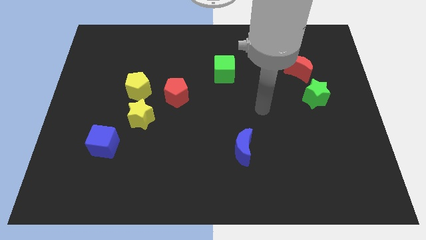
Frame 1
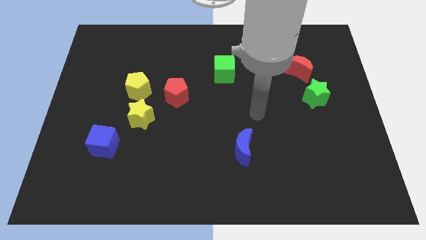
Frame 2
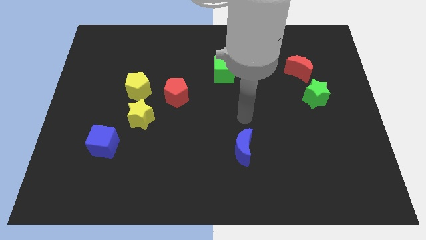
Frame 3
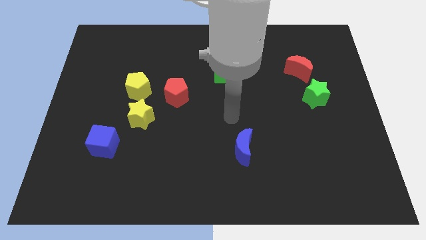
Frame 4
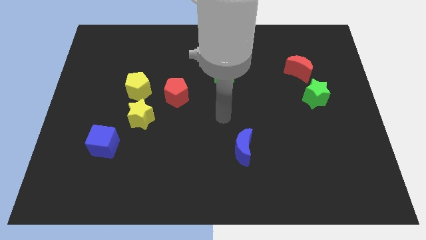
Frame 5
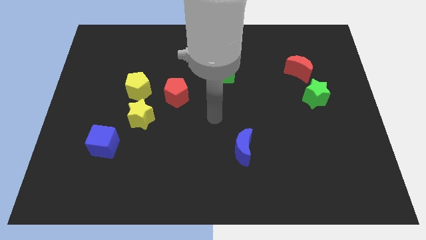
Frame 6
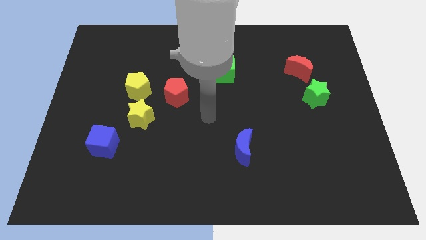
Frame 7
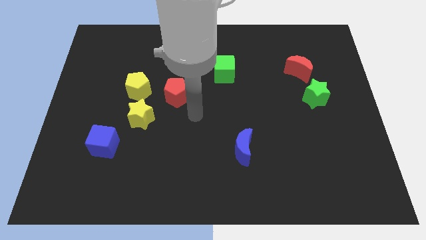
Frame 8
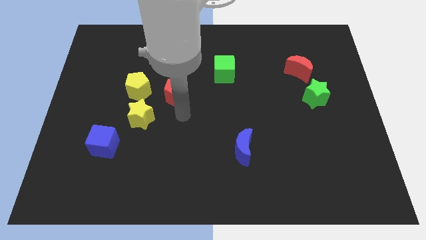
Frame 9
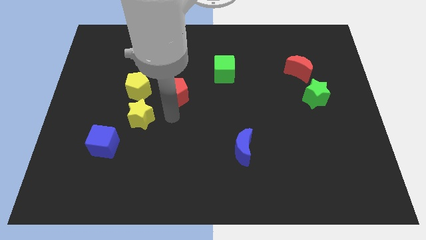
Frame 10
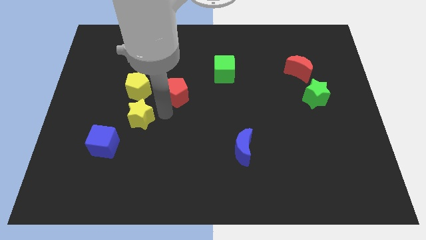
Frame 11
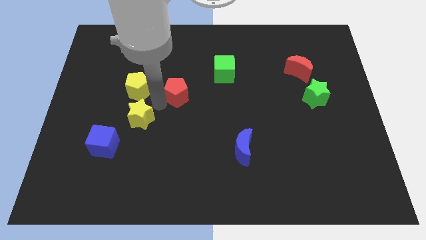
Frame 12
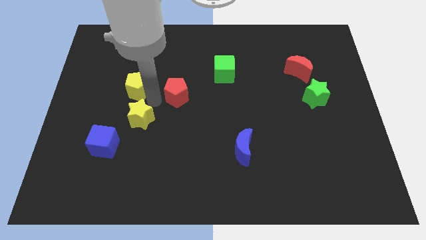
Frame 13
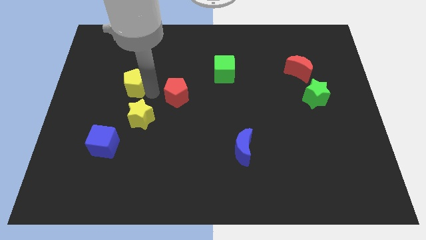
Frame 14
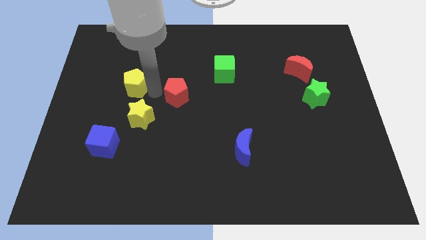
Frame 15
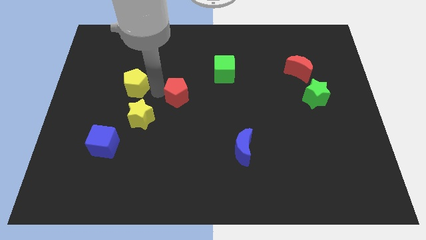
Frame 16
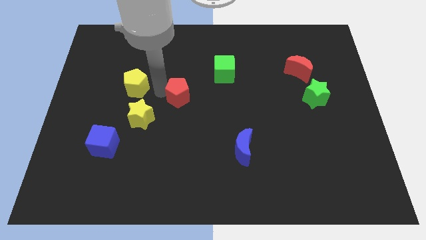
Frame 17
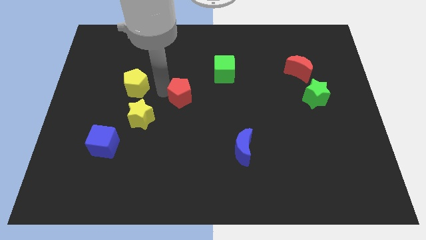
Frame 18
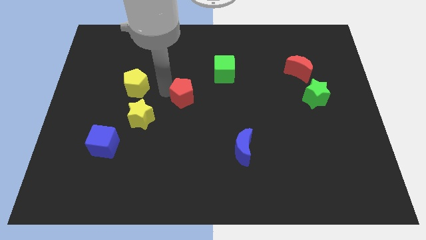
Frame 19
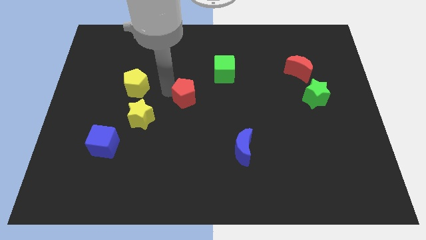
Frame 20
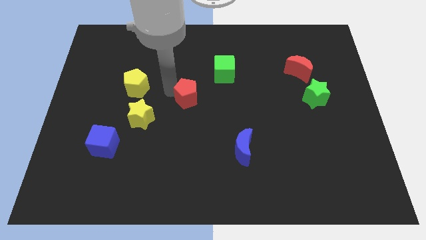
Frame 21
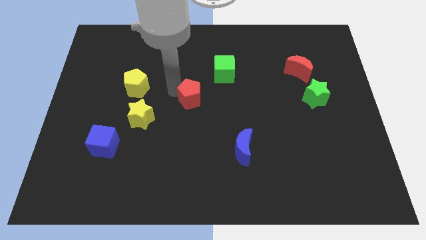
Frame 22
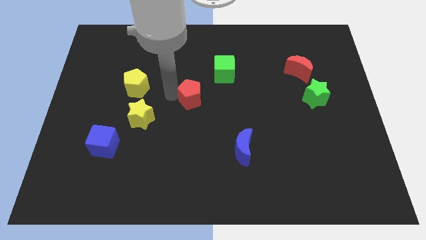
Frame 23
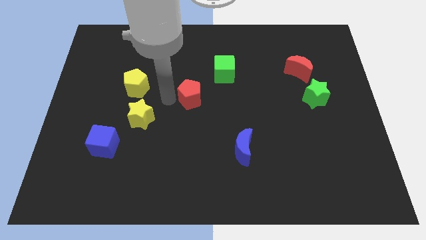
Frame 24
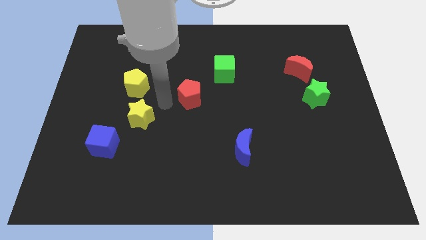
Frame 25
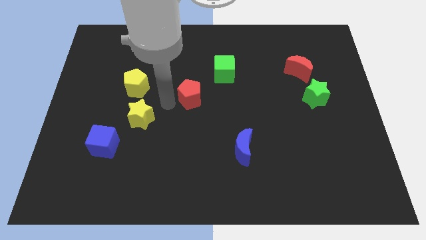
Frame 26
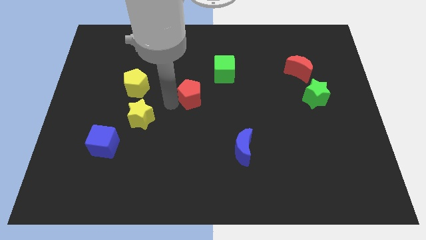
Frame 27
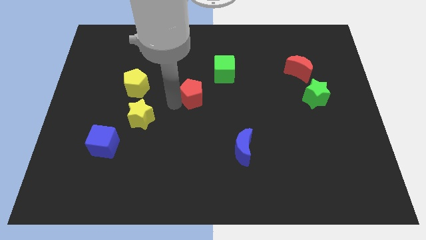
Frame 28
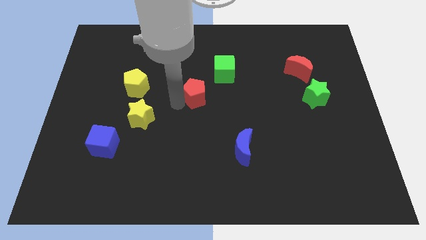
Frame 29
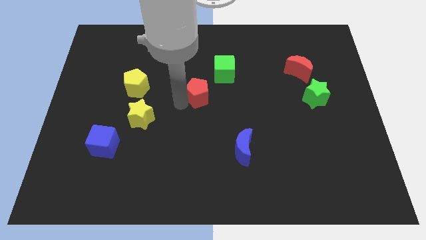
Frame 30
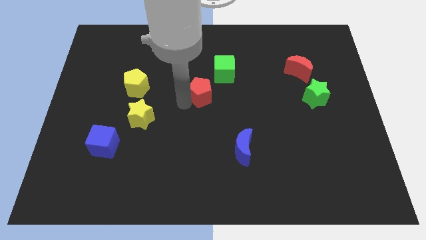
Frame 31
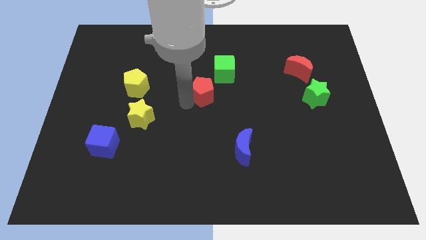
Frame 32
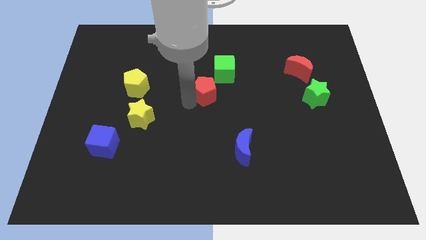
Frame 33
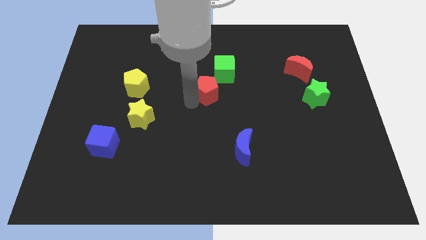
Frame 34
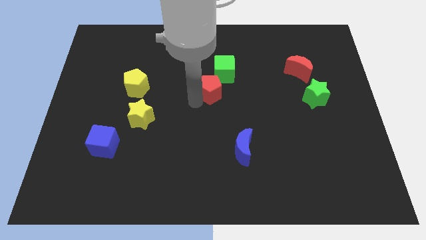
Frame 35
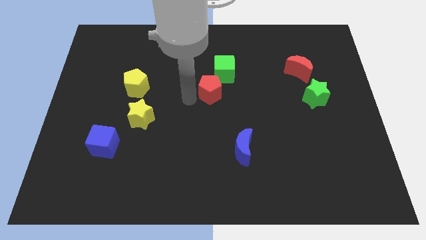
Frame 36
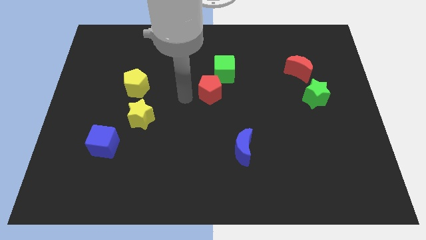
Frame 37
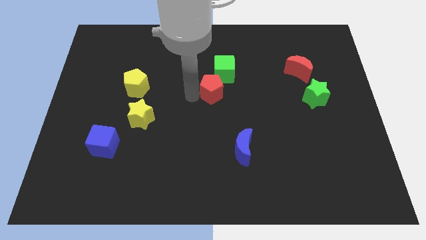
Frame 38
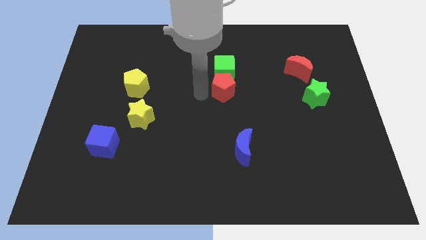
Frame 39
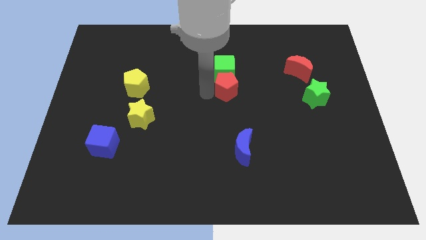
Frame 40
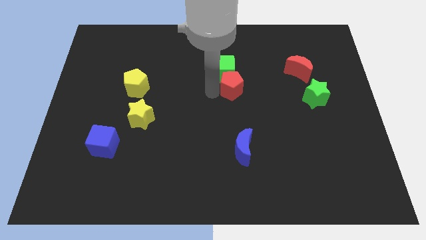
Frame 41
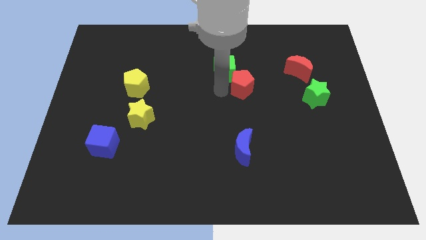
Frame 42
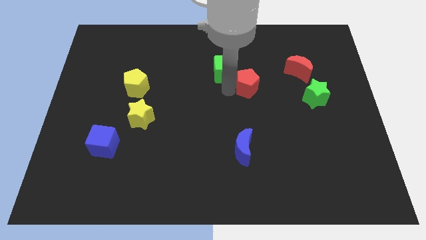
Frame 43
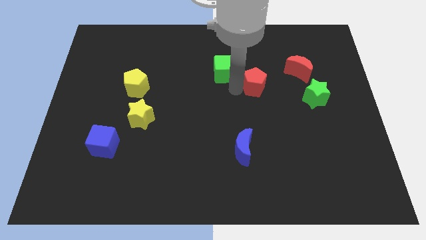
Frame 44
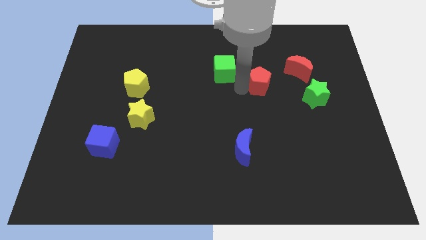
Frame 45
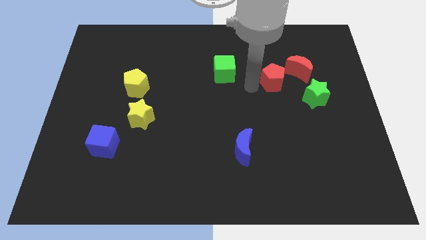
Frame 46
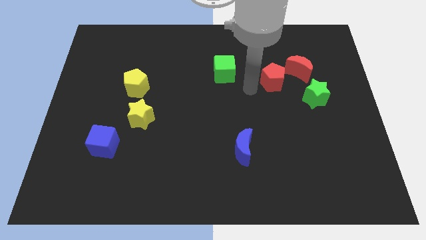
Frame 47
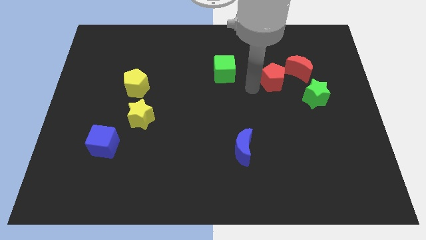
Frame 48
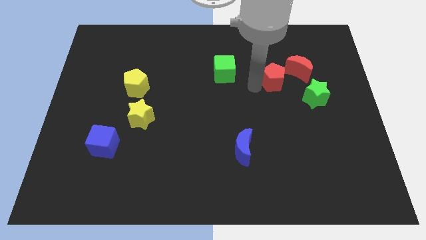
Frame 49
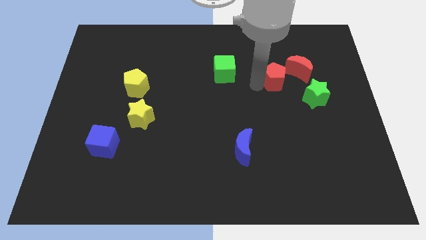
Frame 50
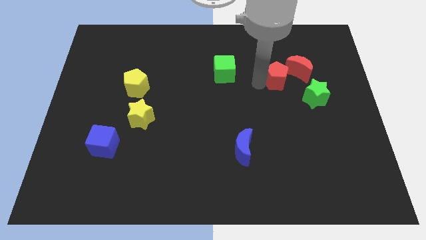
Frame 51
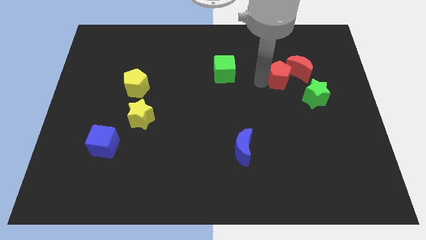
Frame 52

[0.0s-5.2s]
slide the red pentagon close to the red moon

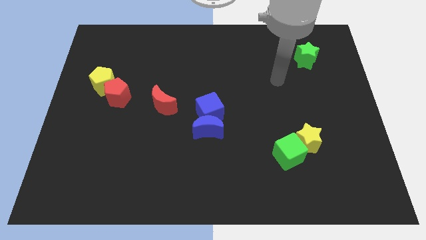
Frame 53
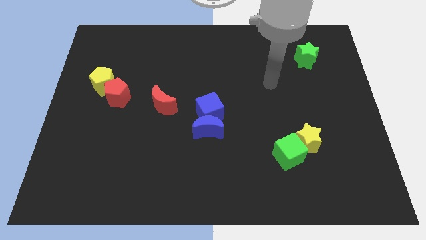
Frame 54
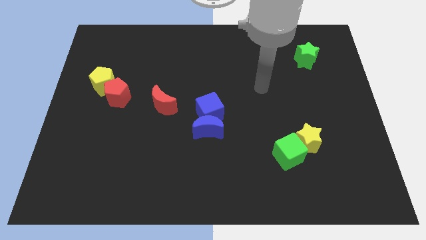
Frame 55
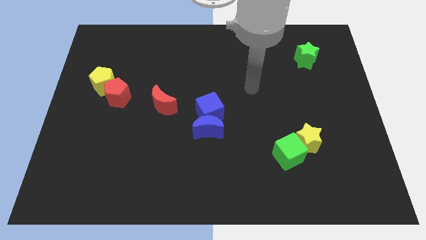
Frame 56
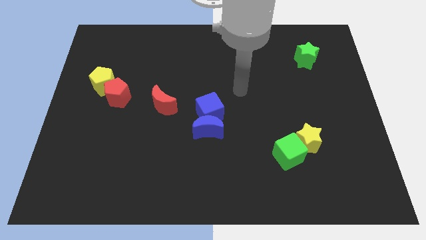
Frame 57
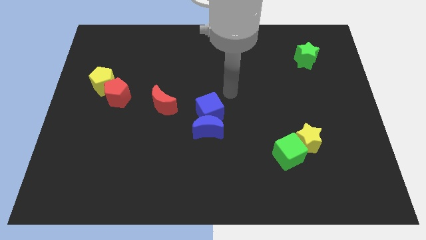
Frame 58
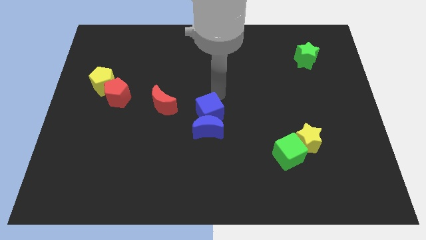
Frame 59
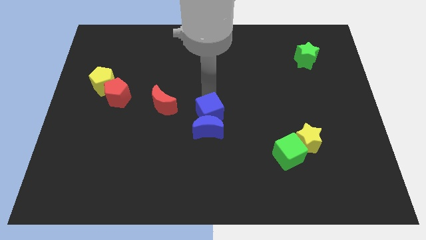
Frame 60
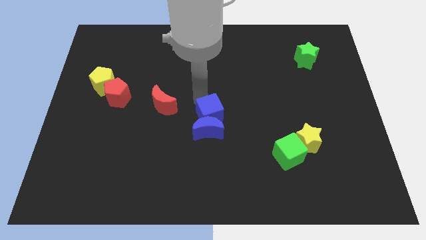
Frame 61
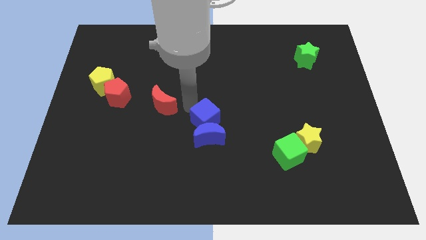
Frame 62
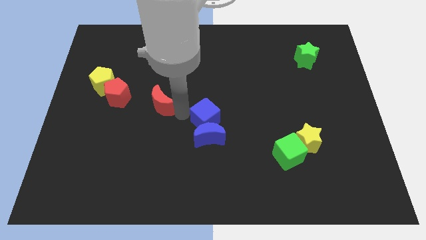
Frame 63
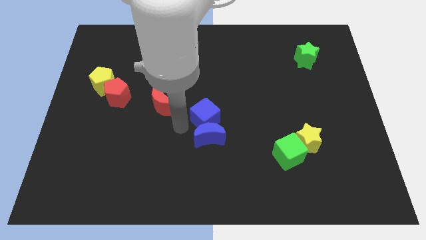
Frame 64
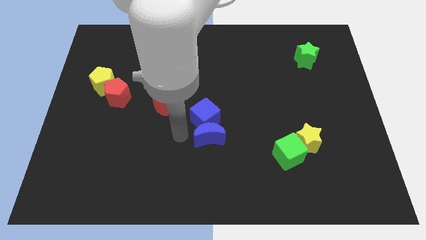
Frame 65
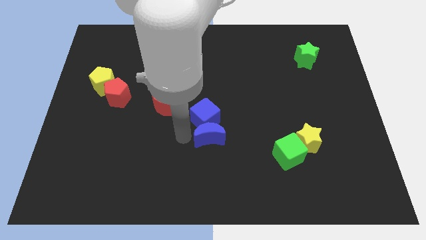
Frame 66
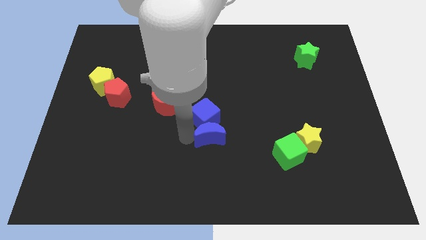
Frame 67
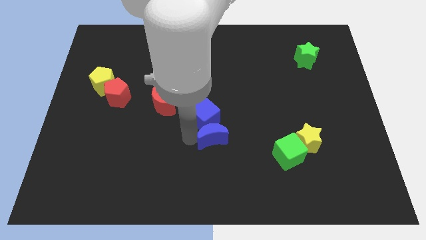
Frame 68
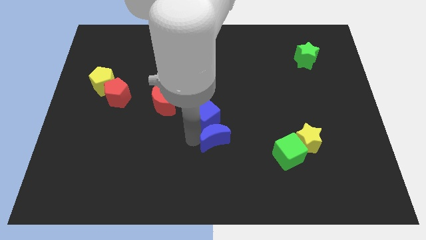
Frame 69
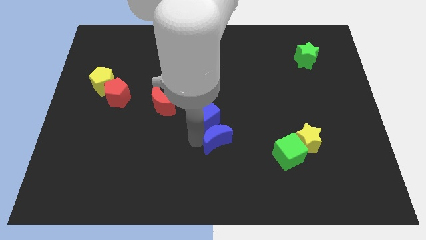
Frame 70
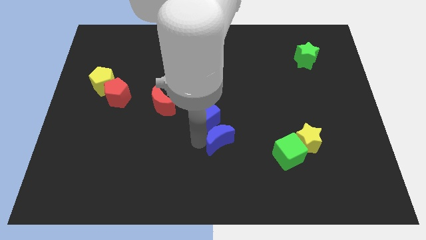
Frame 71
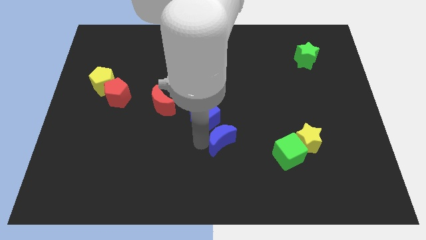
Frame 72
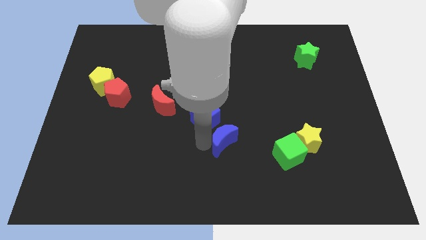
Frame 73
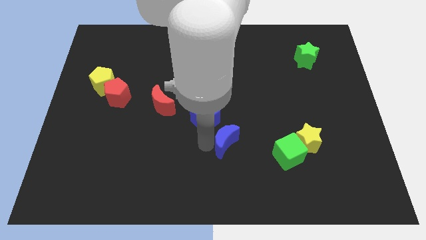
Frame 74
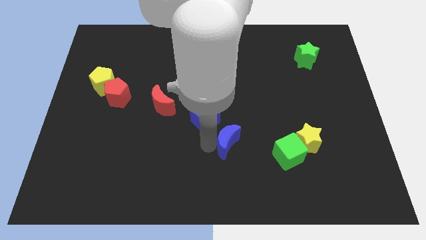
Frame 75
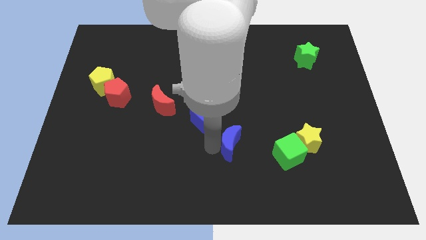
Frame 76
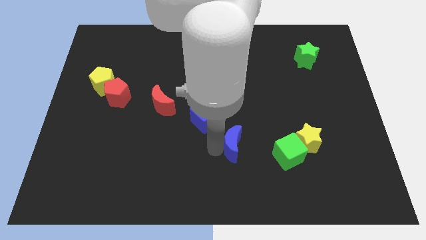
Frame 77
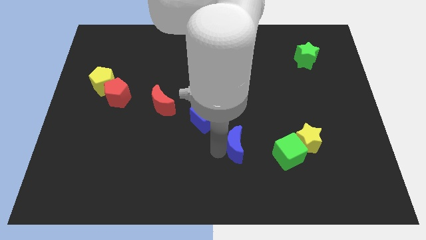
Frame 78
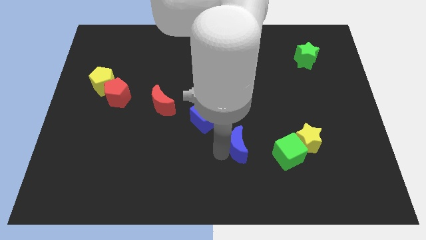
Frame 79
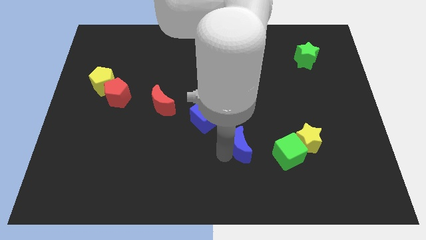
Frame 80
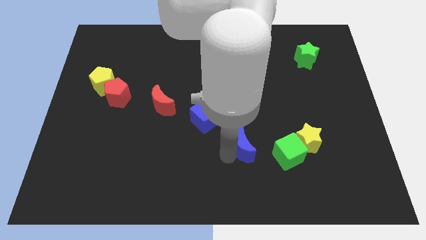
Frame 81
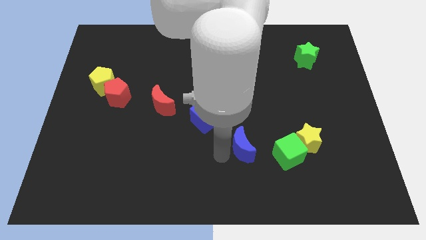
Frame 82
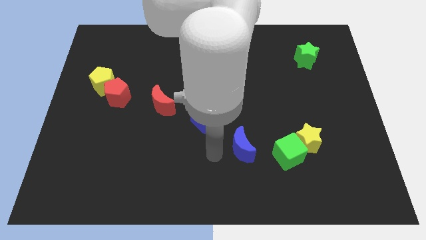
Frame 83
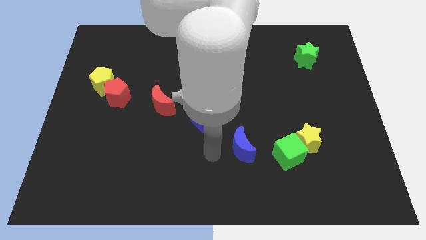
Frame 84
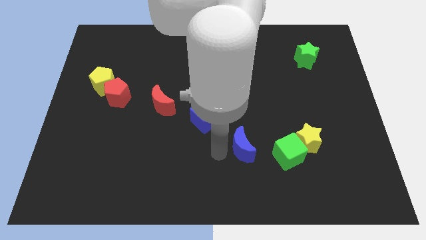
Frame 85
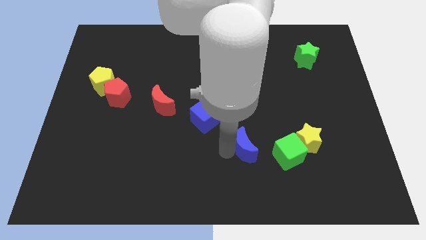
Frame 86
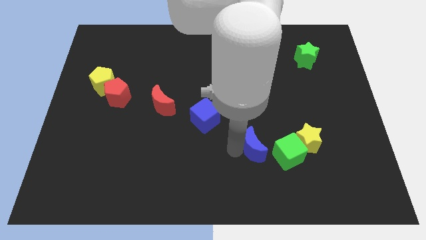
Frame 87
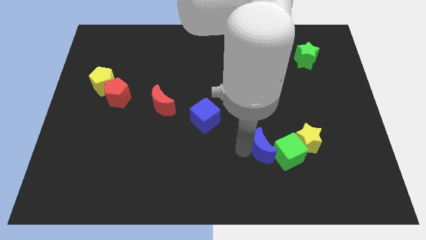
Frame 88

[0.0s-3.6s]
move the blue moon close to the green cube
